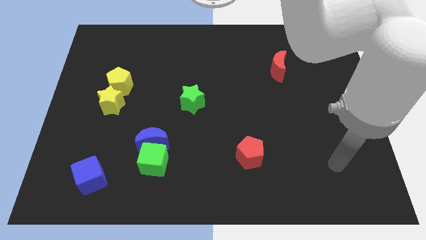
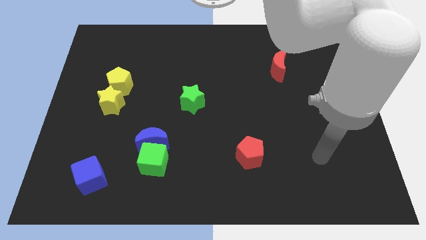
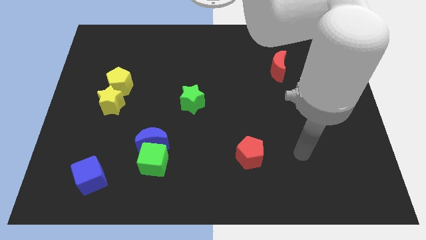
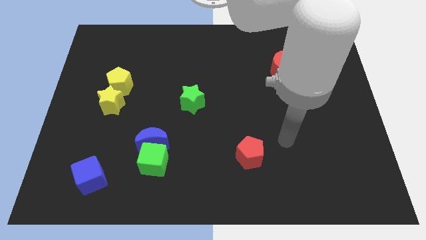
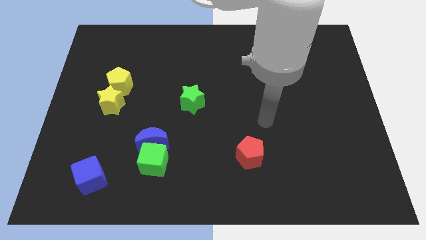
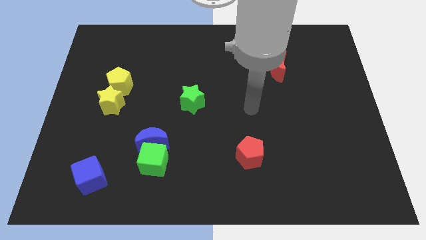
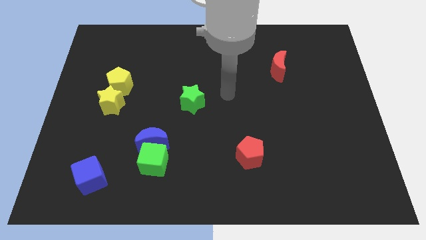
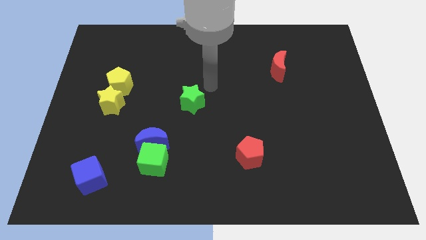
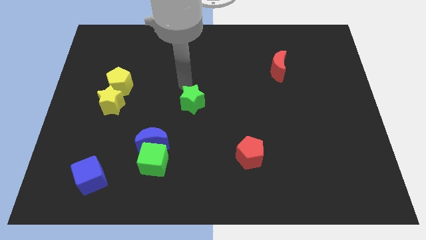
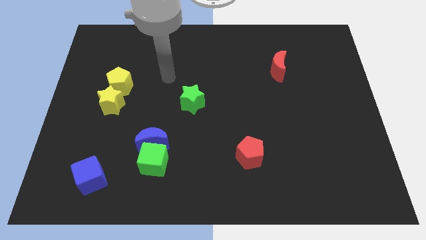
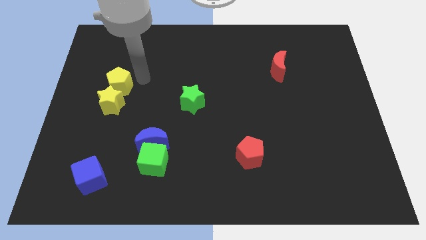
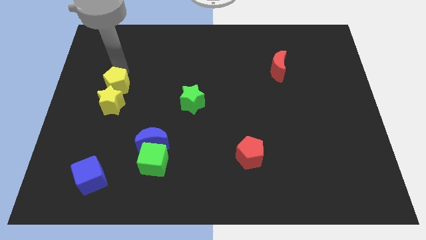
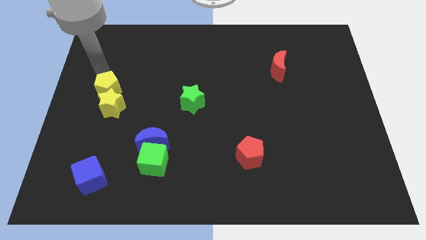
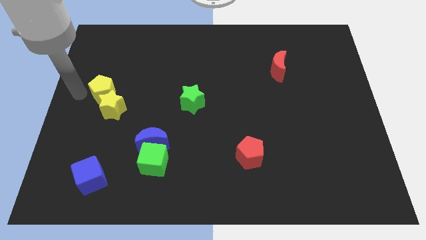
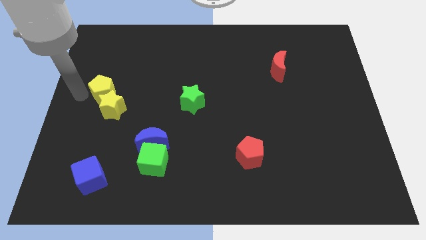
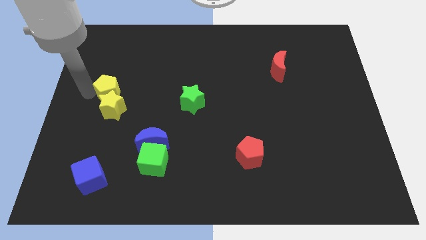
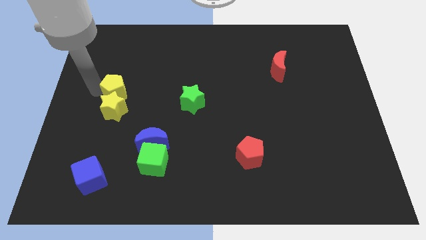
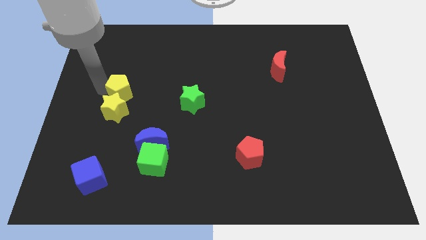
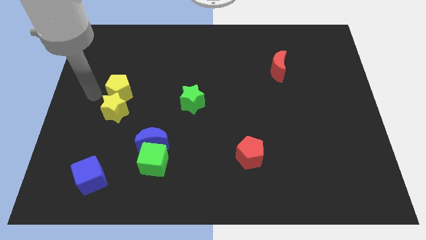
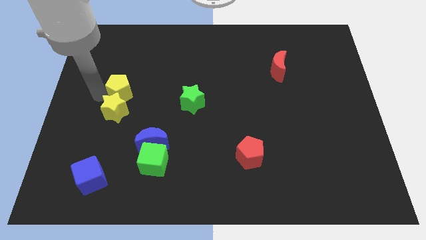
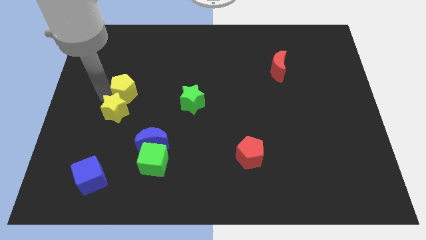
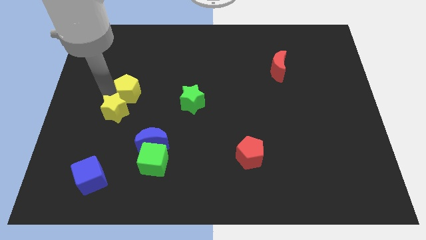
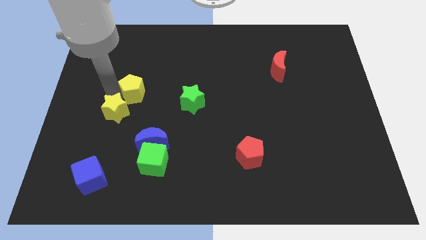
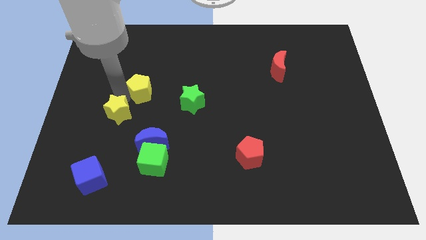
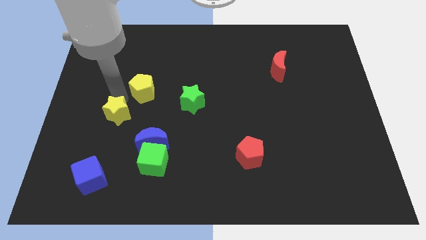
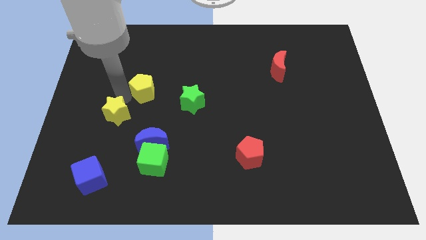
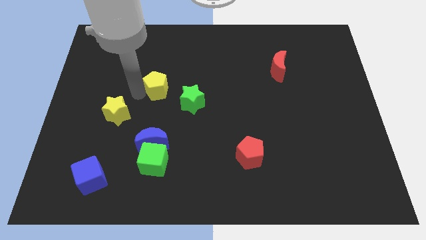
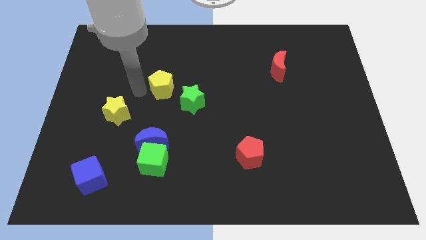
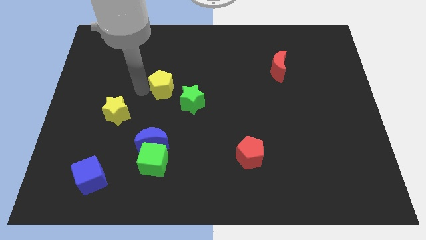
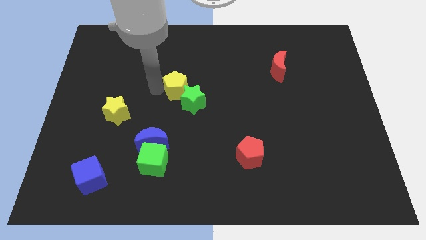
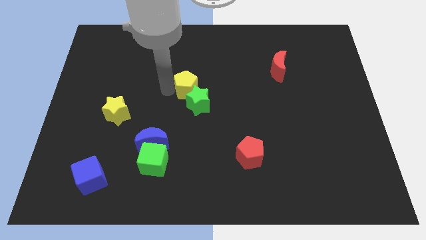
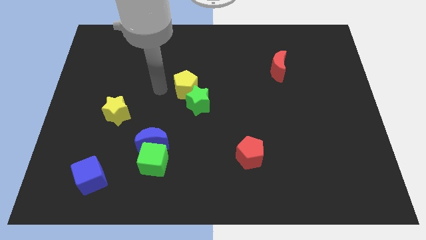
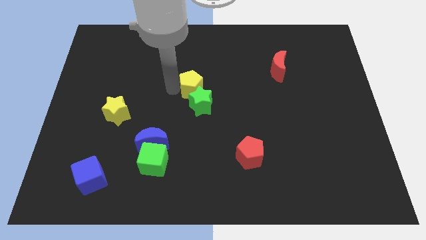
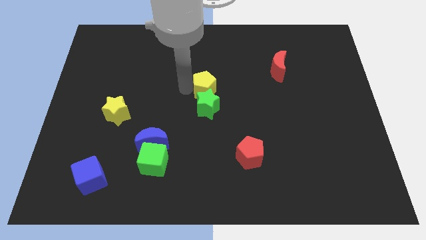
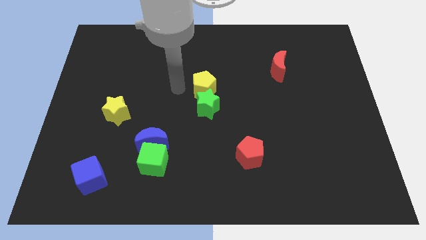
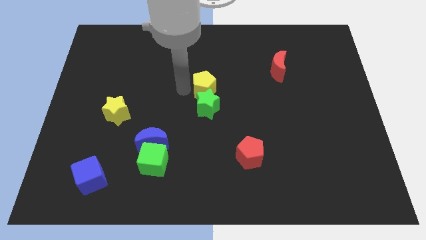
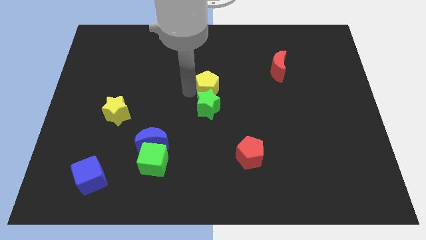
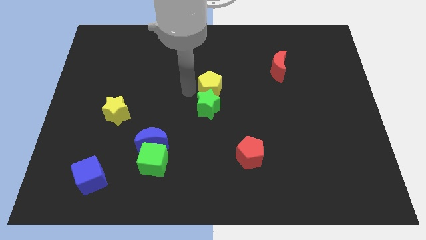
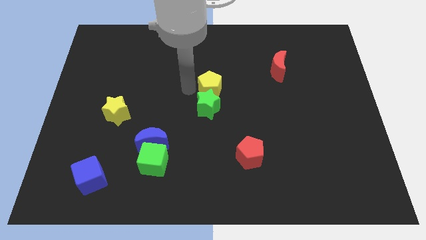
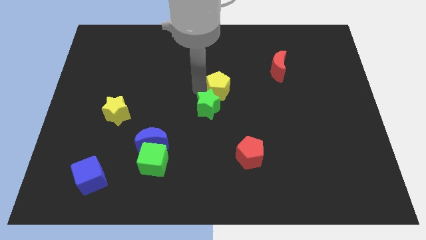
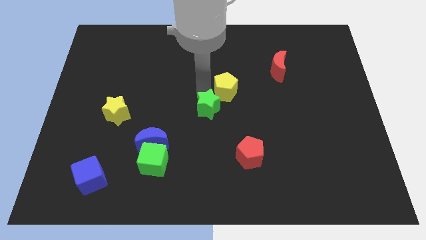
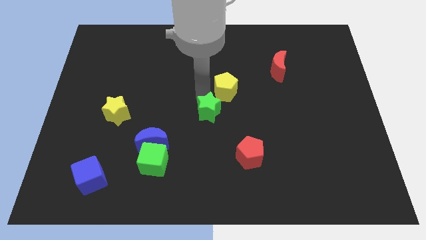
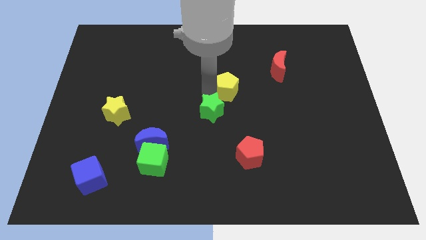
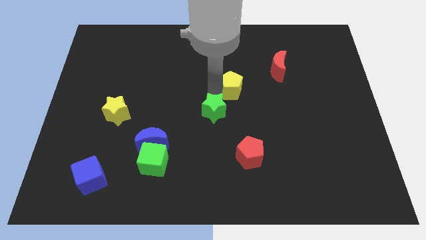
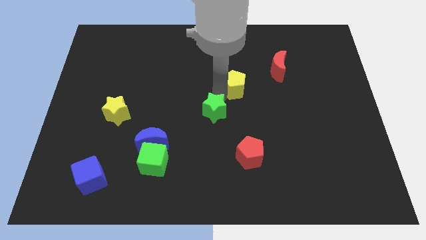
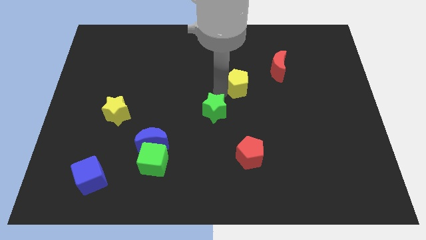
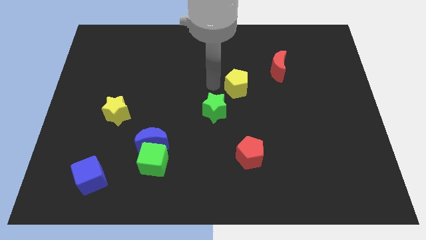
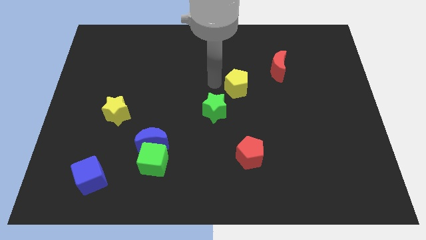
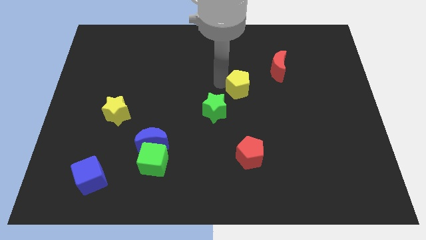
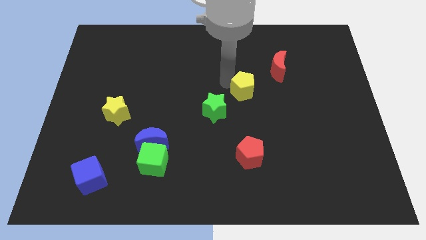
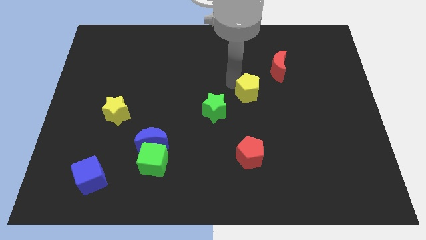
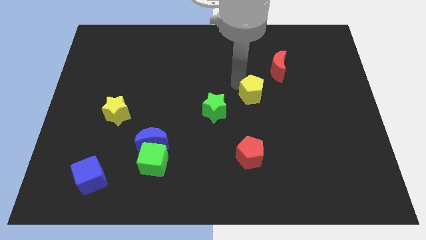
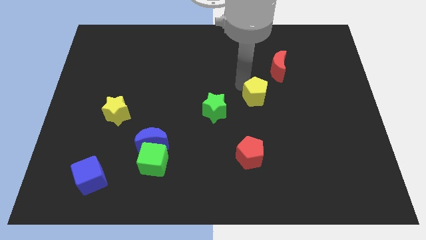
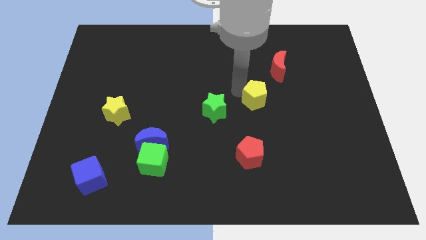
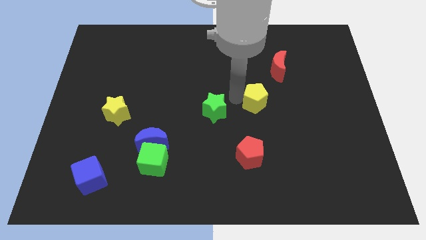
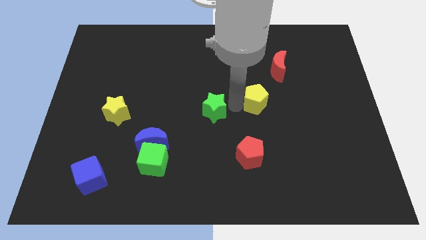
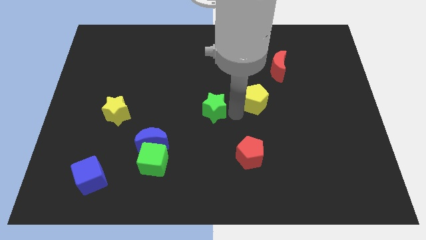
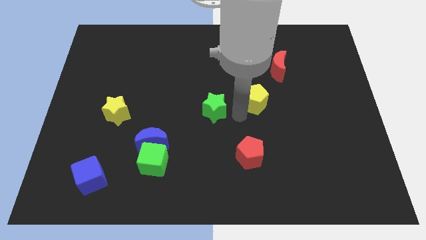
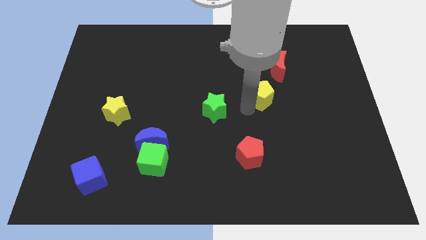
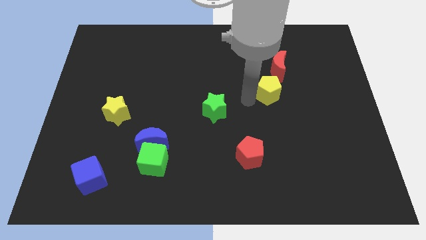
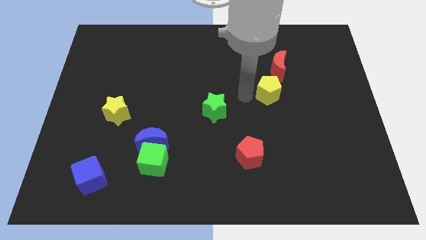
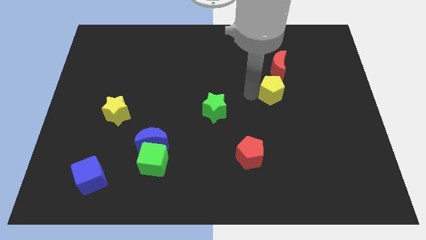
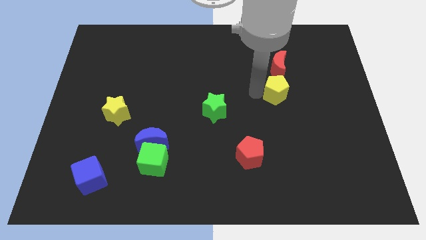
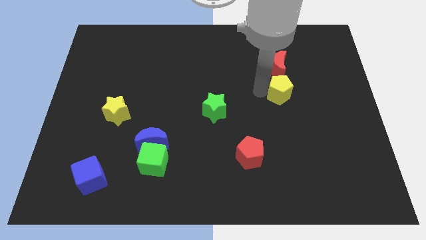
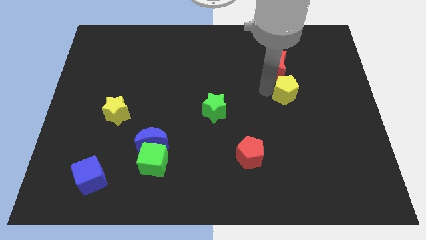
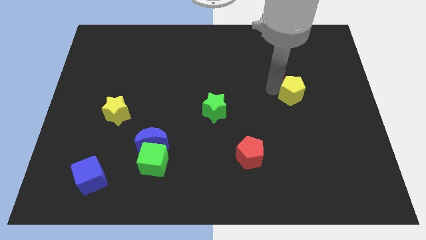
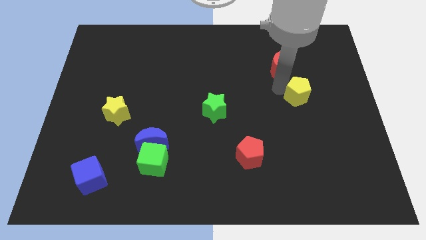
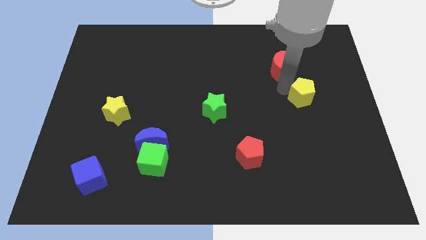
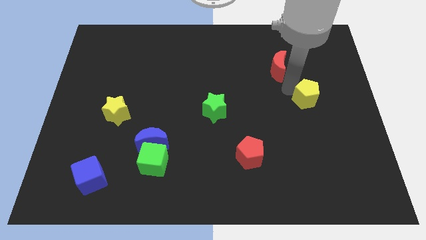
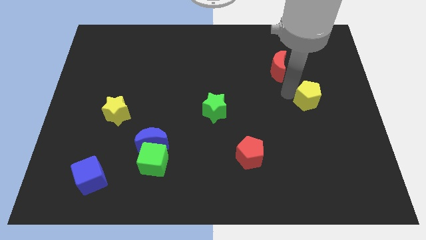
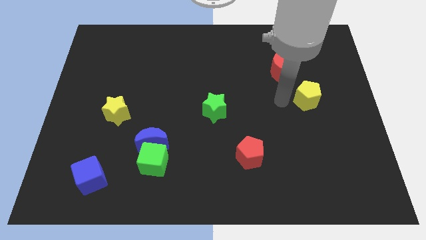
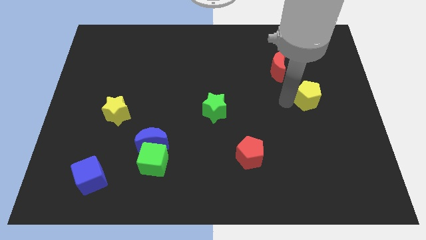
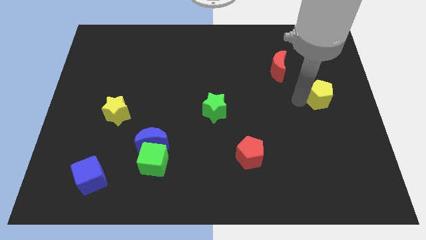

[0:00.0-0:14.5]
move the yellow pentagon to the right side of the board
